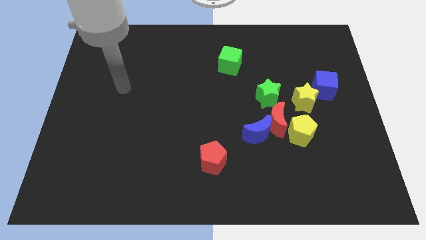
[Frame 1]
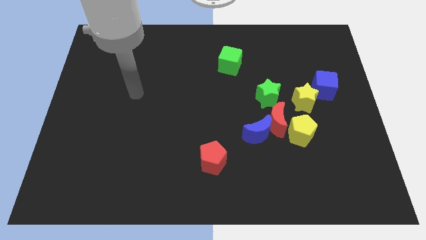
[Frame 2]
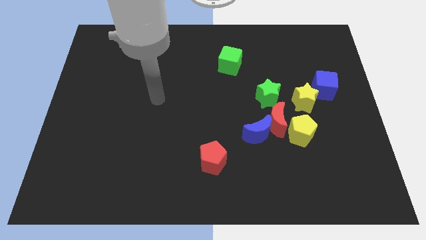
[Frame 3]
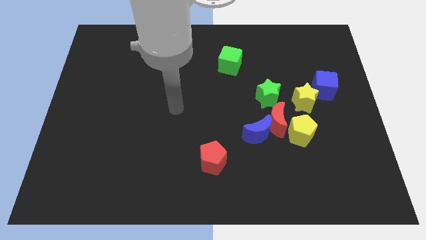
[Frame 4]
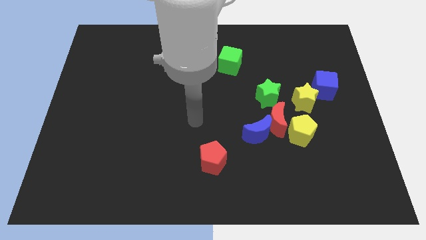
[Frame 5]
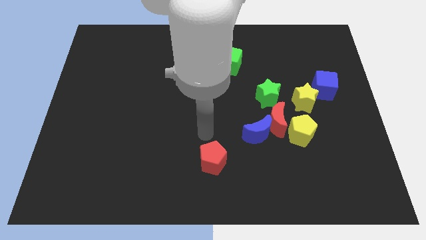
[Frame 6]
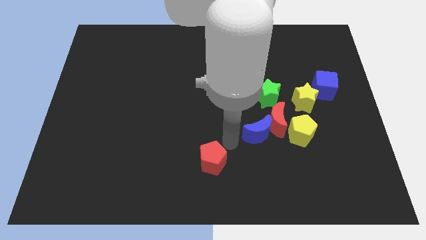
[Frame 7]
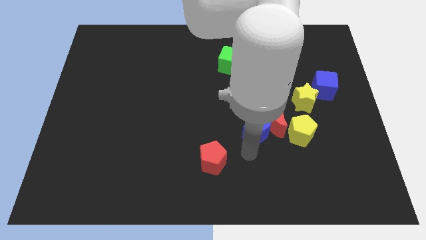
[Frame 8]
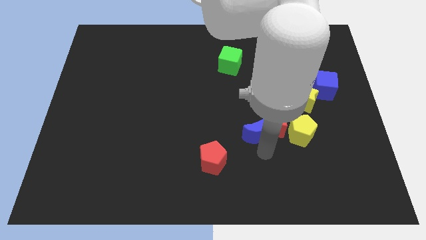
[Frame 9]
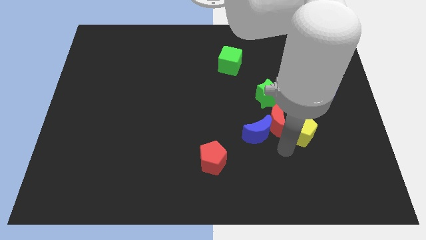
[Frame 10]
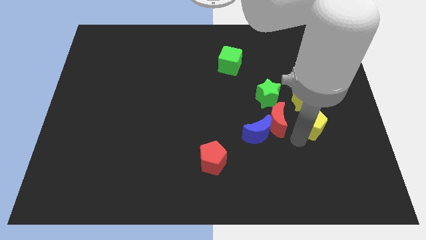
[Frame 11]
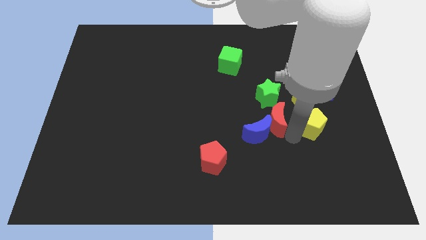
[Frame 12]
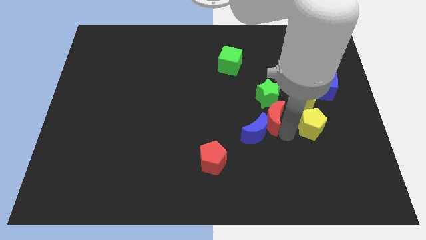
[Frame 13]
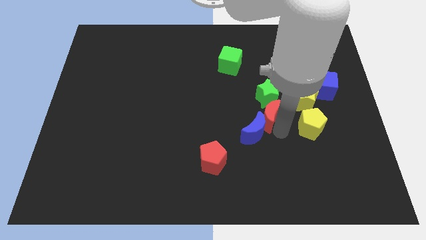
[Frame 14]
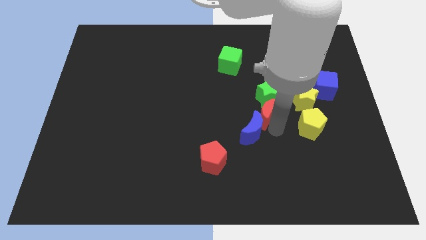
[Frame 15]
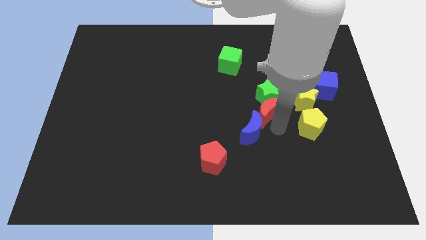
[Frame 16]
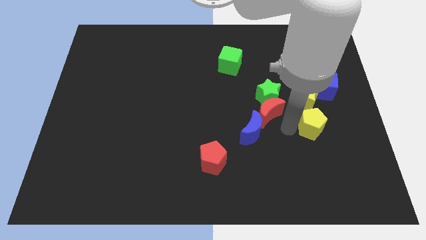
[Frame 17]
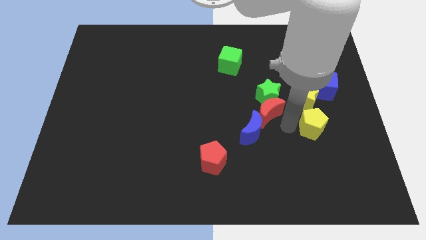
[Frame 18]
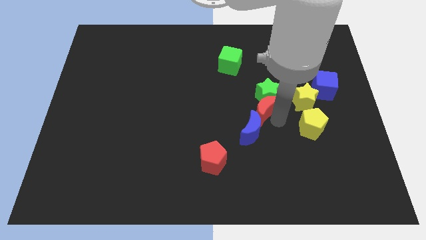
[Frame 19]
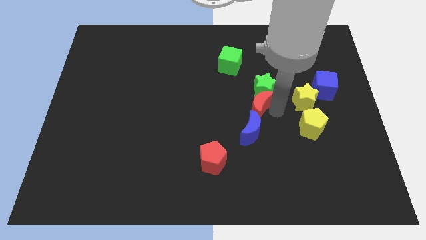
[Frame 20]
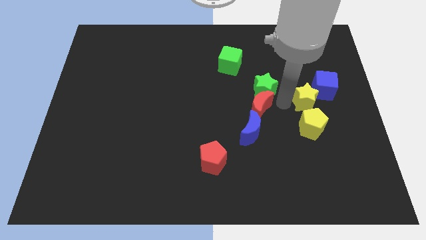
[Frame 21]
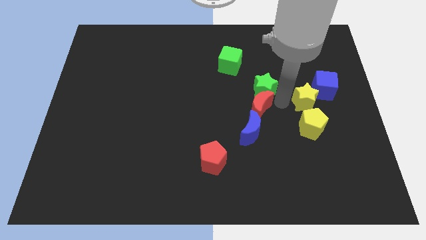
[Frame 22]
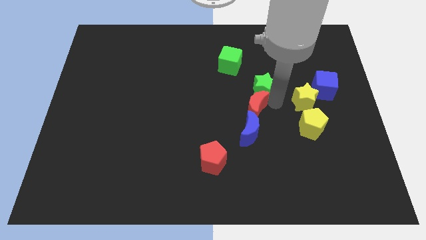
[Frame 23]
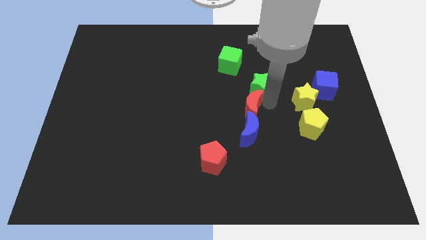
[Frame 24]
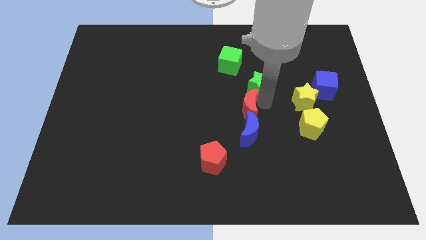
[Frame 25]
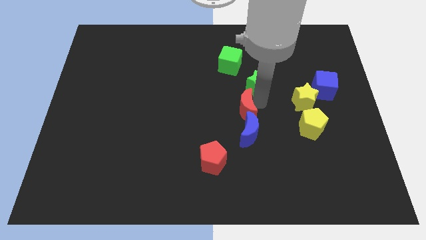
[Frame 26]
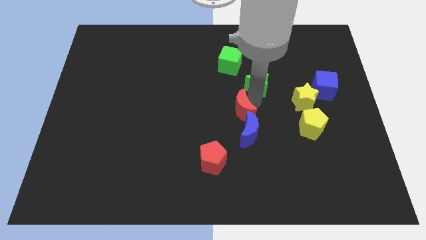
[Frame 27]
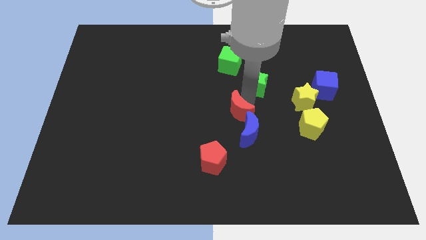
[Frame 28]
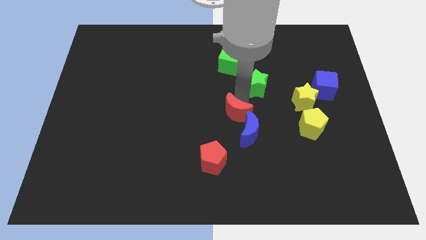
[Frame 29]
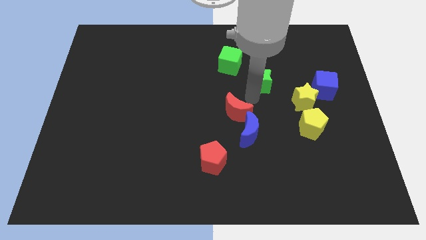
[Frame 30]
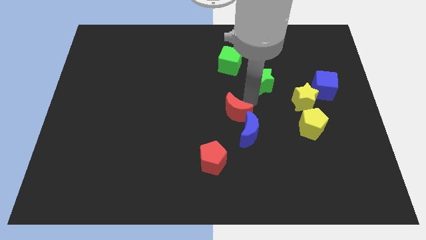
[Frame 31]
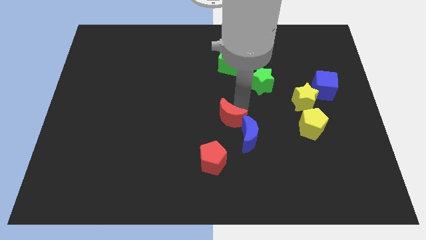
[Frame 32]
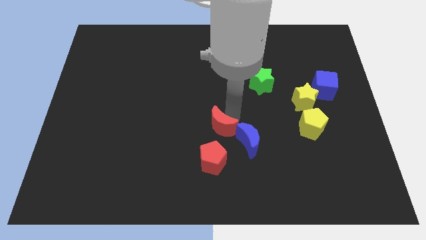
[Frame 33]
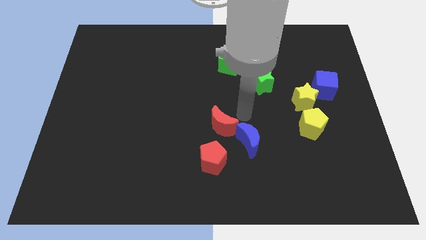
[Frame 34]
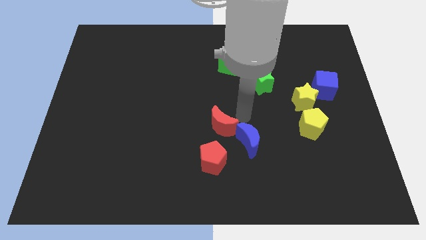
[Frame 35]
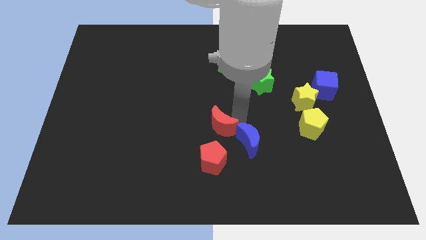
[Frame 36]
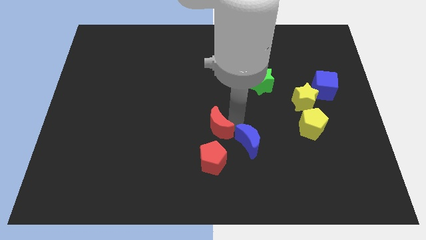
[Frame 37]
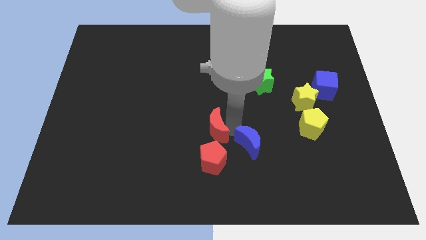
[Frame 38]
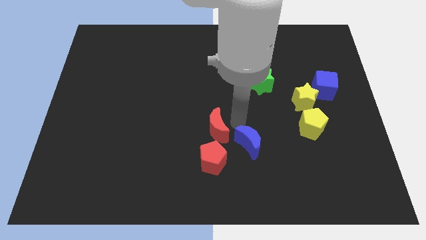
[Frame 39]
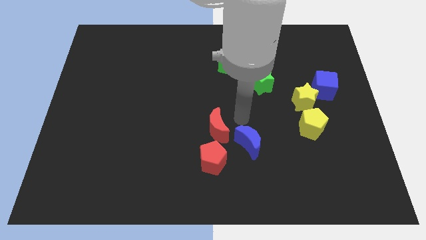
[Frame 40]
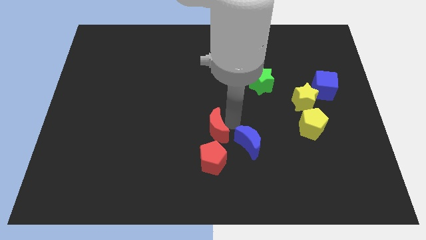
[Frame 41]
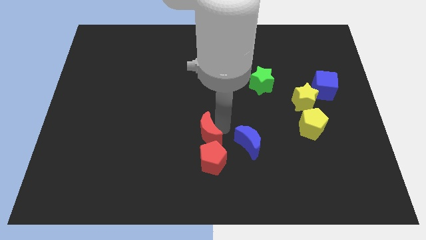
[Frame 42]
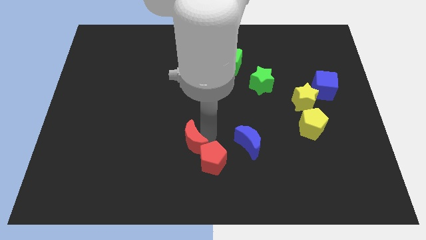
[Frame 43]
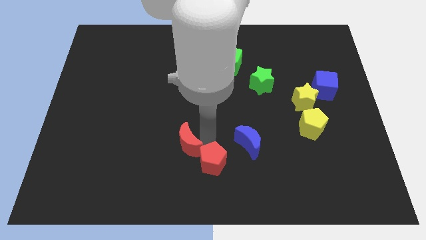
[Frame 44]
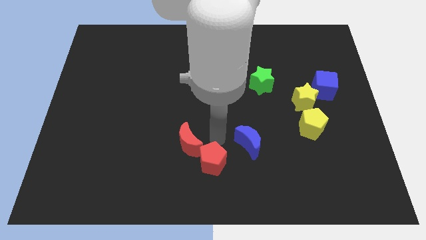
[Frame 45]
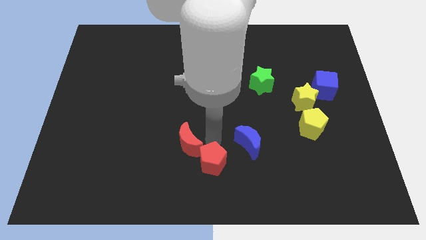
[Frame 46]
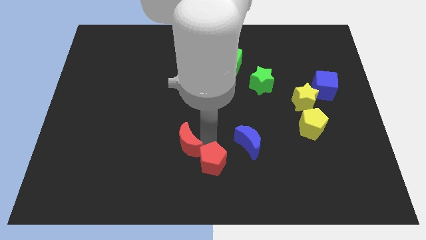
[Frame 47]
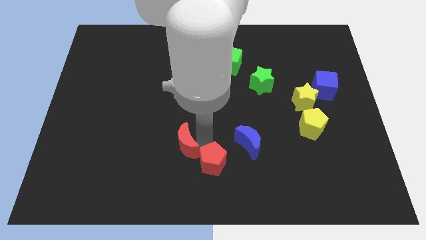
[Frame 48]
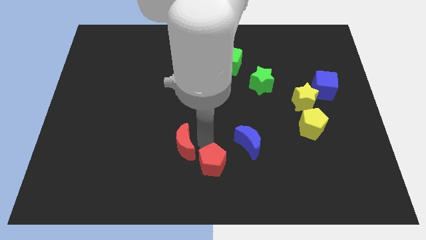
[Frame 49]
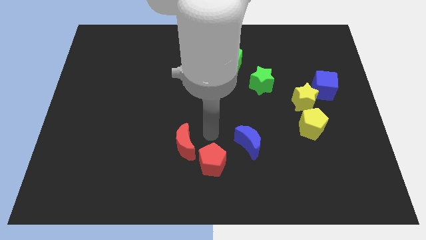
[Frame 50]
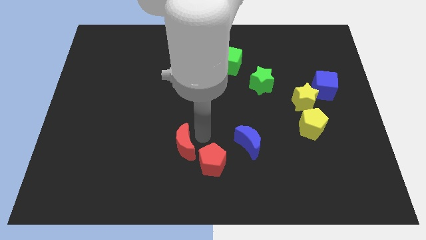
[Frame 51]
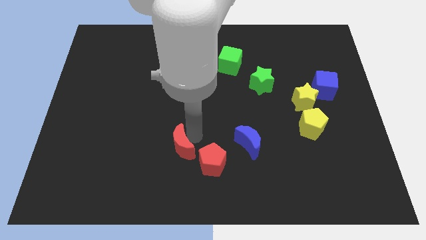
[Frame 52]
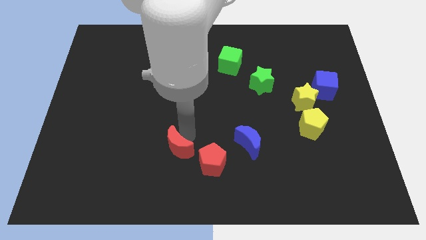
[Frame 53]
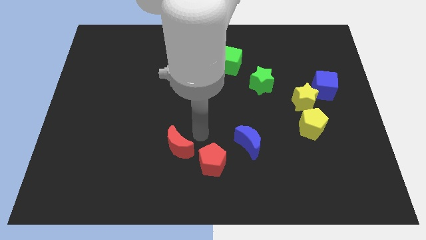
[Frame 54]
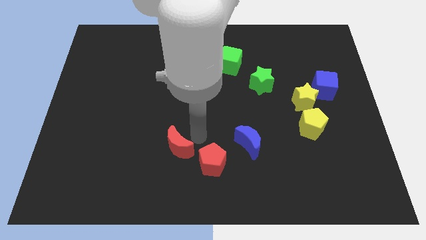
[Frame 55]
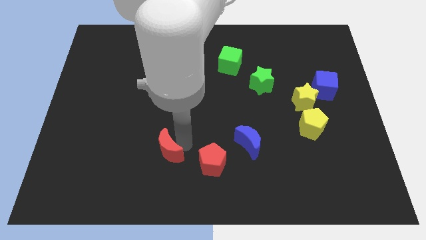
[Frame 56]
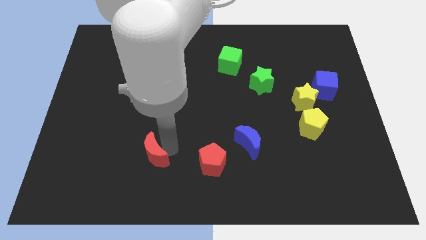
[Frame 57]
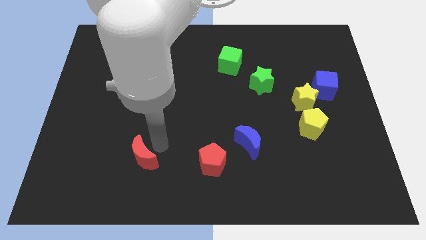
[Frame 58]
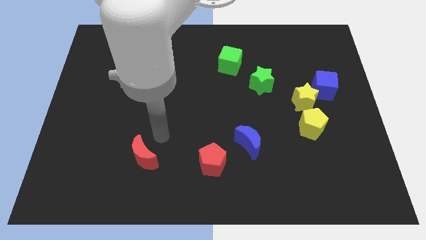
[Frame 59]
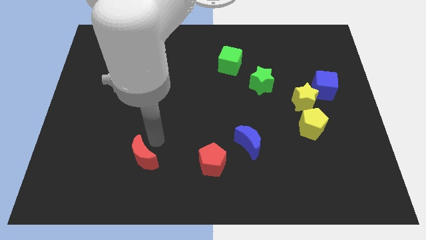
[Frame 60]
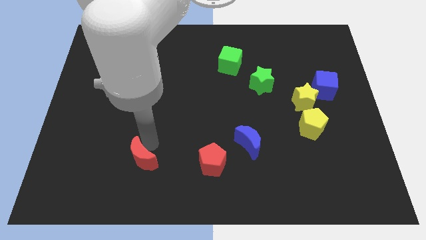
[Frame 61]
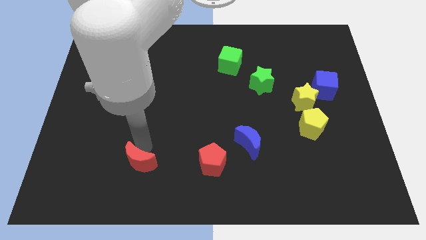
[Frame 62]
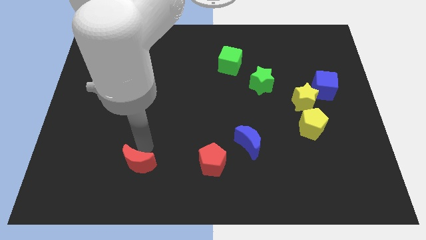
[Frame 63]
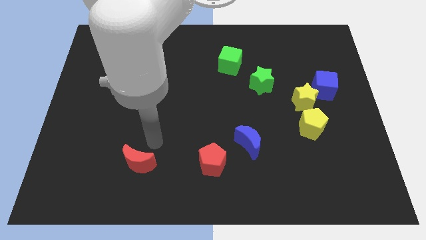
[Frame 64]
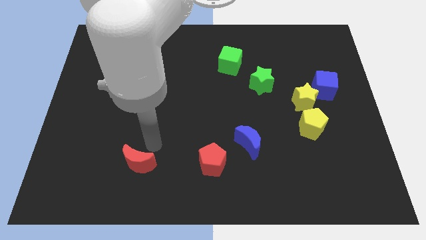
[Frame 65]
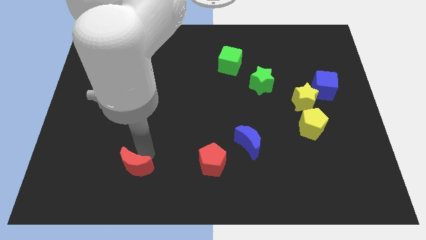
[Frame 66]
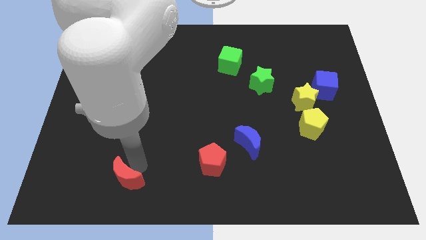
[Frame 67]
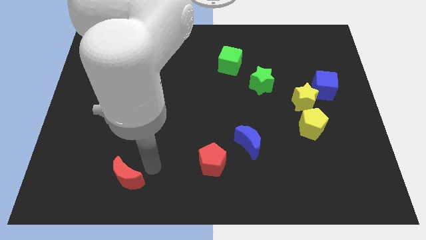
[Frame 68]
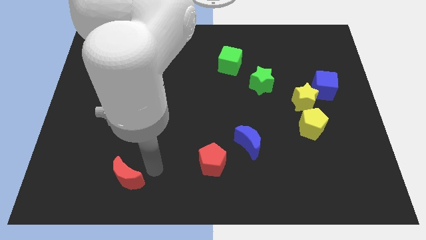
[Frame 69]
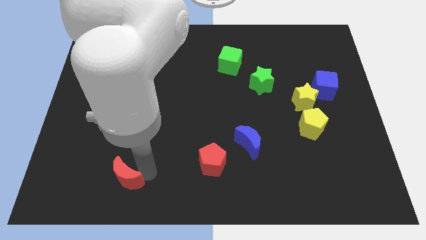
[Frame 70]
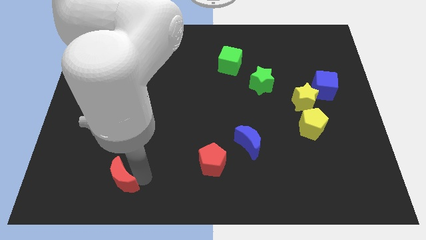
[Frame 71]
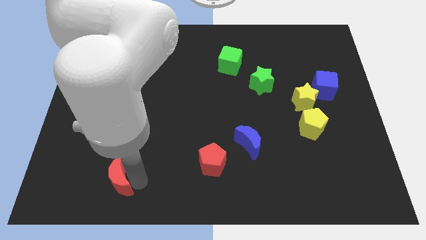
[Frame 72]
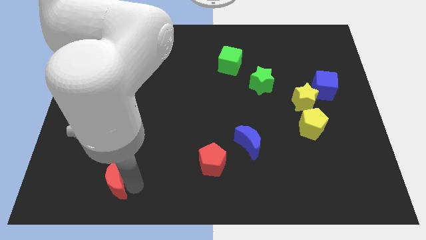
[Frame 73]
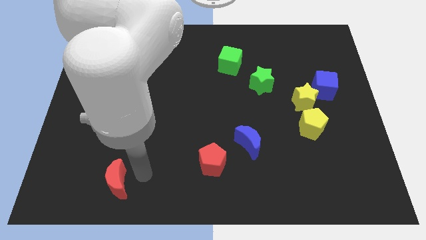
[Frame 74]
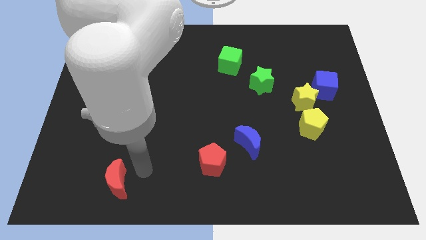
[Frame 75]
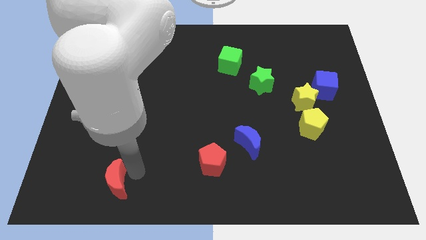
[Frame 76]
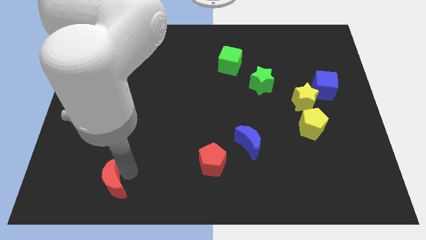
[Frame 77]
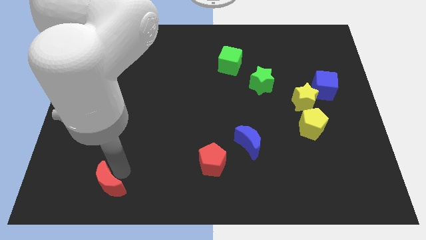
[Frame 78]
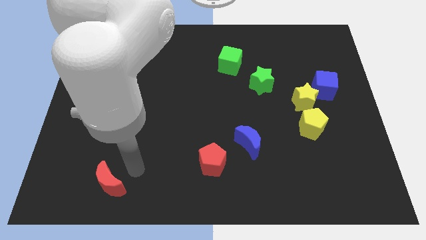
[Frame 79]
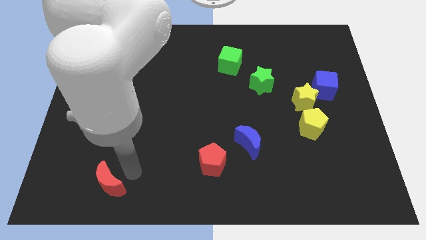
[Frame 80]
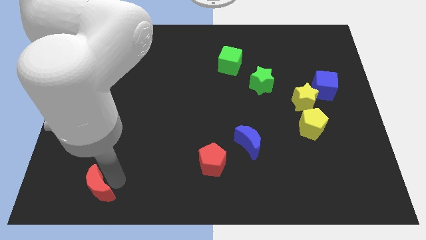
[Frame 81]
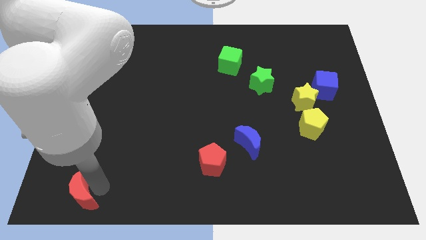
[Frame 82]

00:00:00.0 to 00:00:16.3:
put the red moon to the lower left corner
